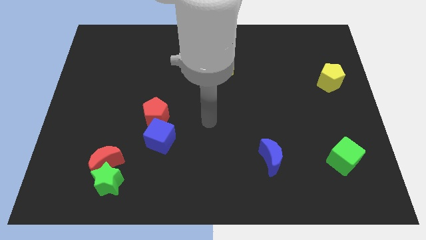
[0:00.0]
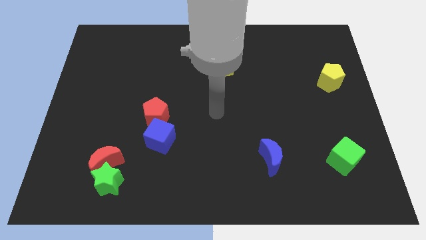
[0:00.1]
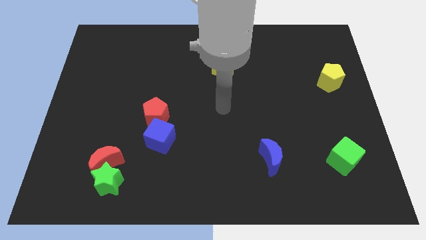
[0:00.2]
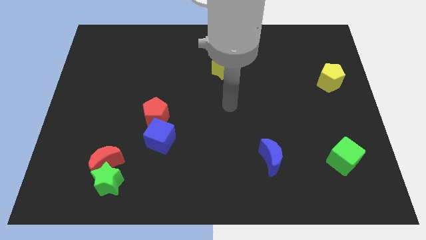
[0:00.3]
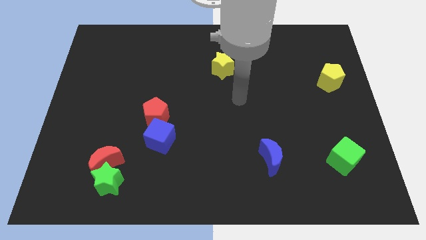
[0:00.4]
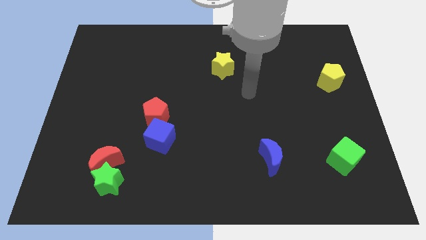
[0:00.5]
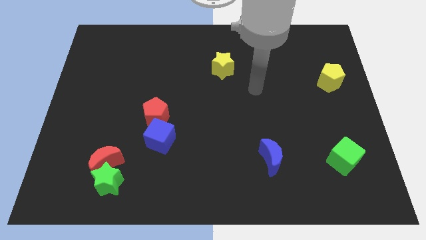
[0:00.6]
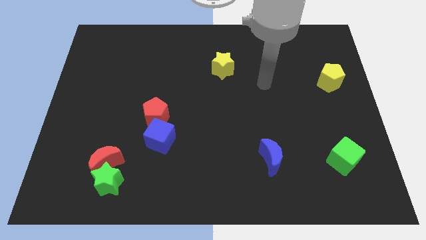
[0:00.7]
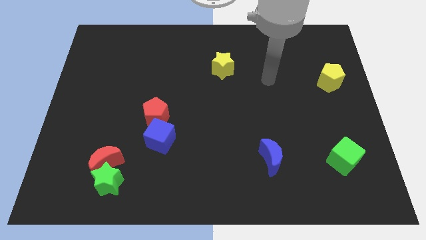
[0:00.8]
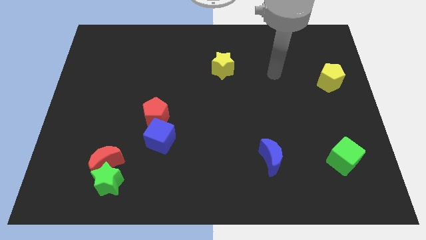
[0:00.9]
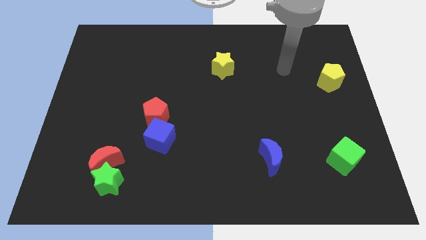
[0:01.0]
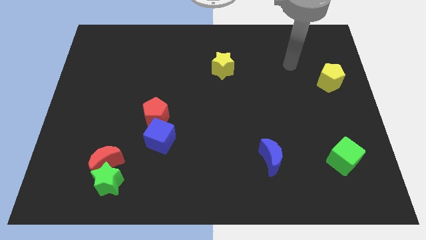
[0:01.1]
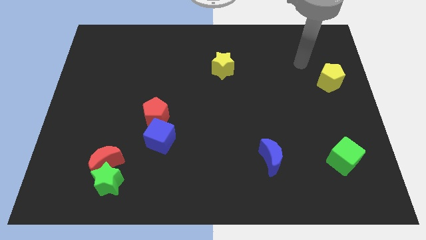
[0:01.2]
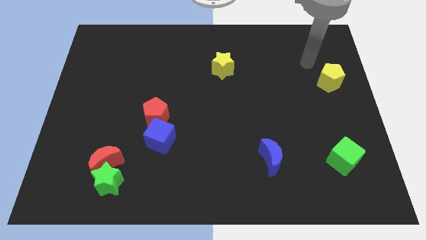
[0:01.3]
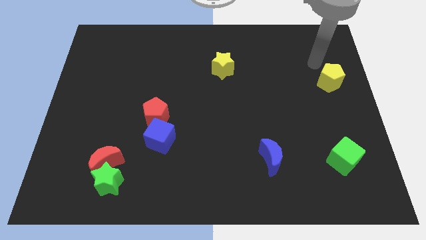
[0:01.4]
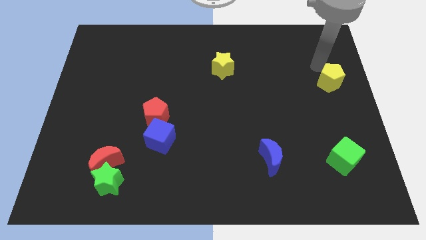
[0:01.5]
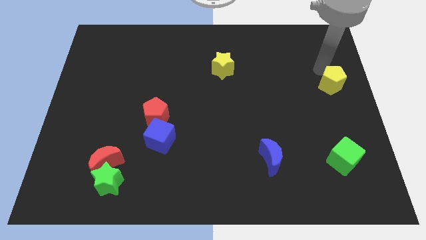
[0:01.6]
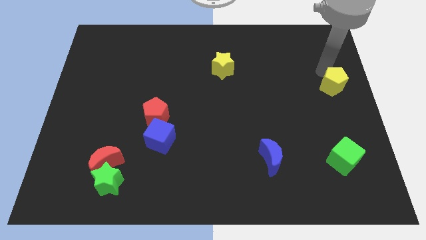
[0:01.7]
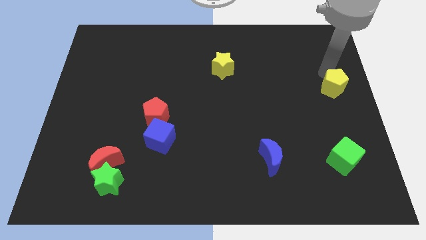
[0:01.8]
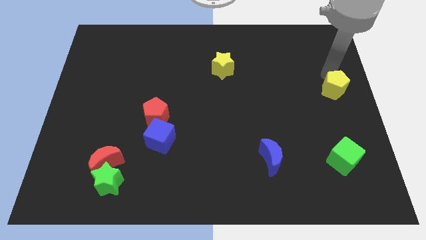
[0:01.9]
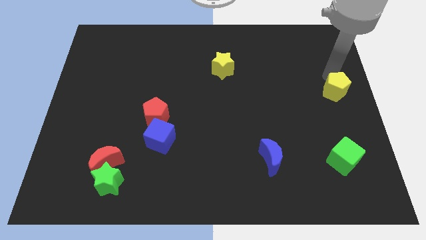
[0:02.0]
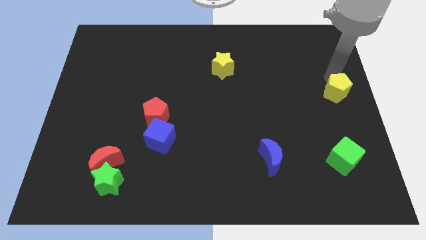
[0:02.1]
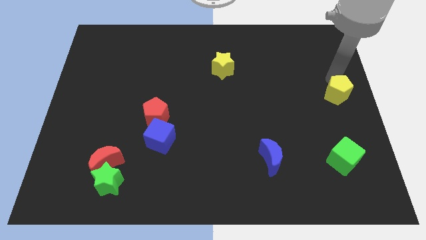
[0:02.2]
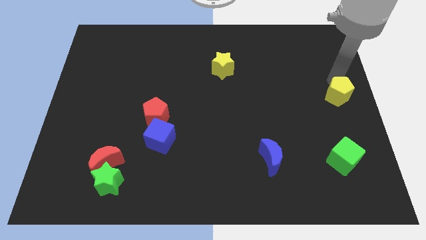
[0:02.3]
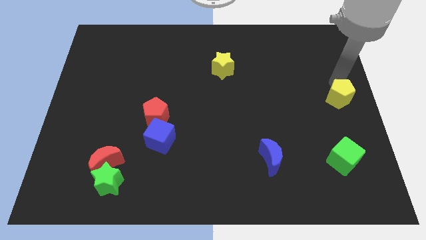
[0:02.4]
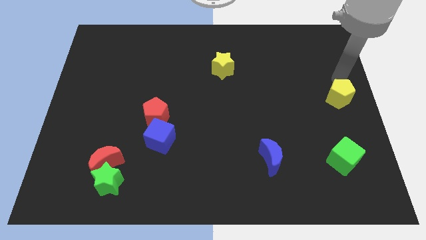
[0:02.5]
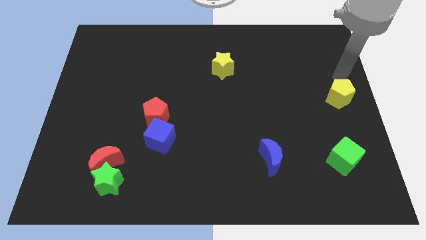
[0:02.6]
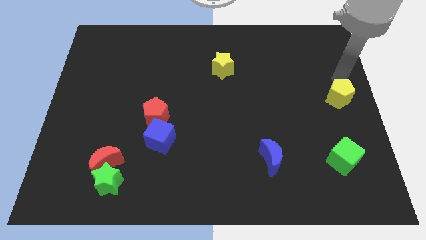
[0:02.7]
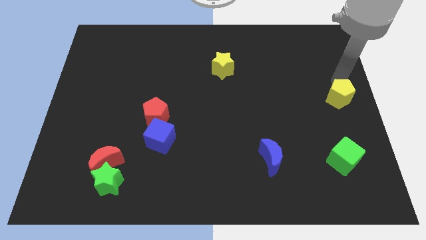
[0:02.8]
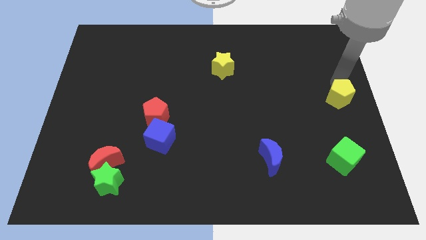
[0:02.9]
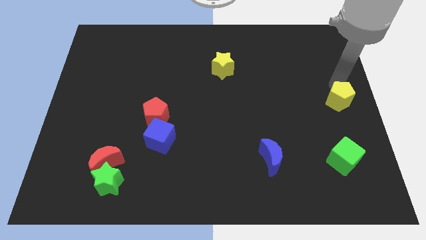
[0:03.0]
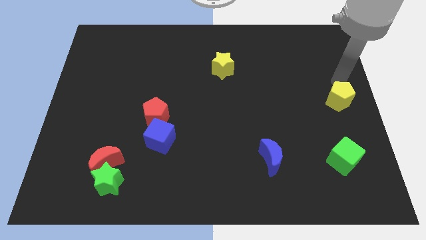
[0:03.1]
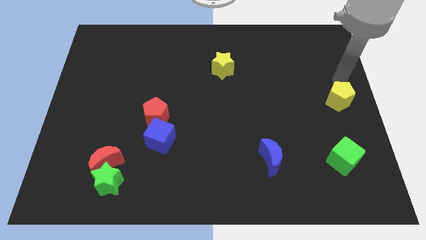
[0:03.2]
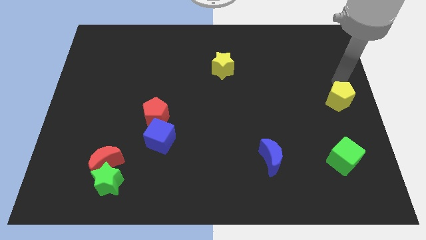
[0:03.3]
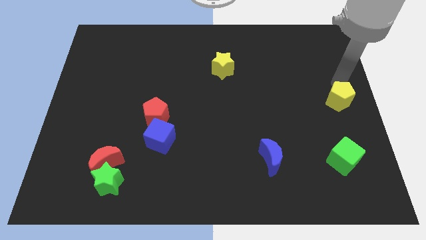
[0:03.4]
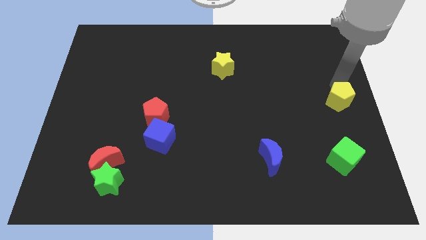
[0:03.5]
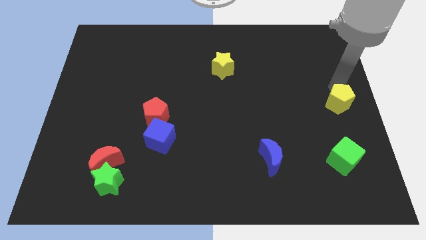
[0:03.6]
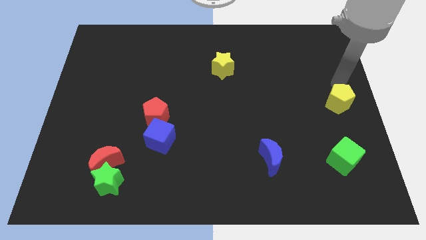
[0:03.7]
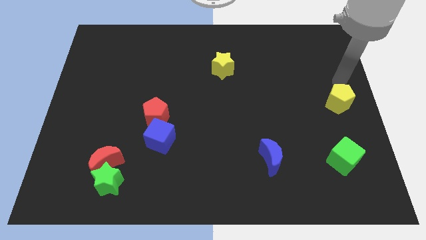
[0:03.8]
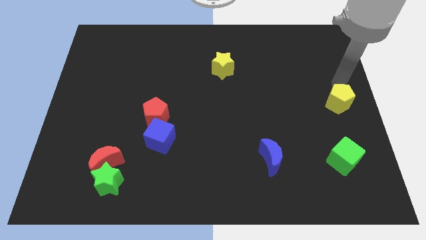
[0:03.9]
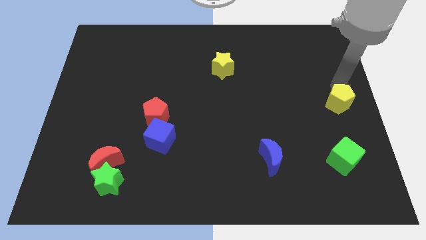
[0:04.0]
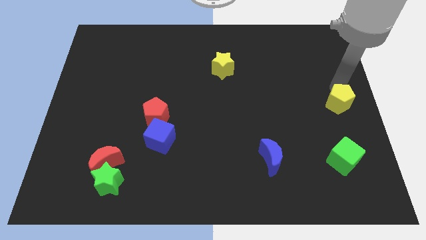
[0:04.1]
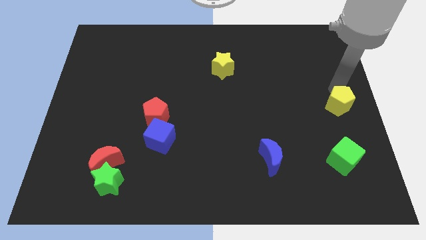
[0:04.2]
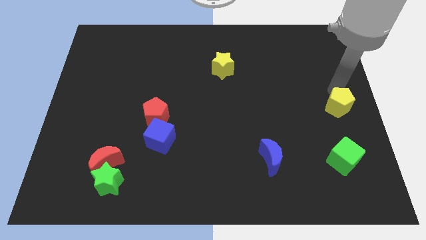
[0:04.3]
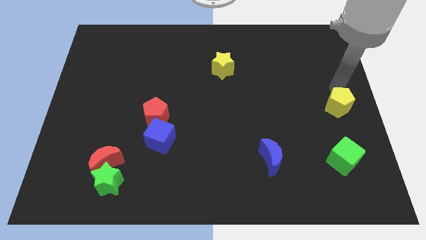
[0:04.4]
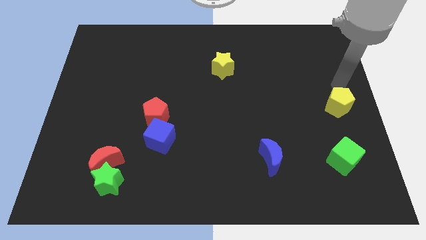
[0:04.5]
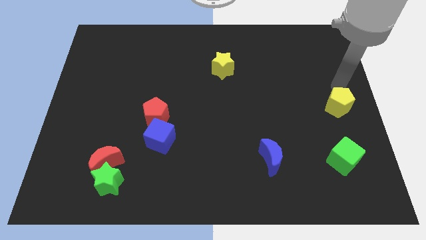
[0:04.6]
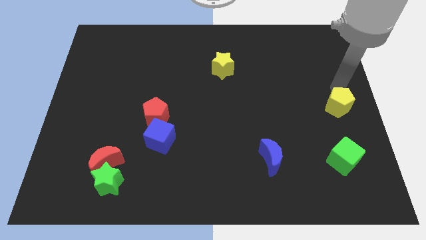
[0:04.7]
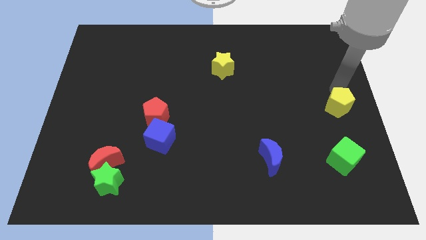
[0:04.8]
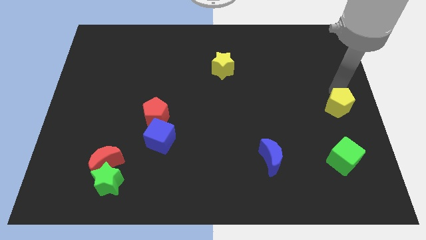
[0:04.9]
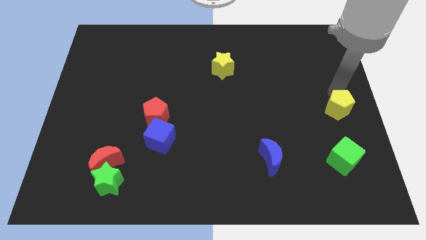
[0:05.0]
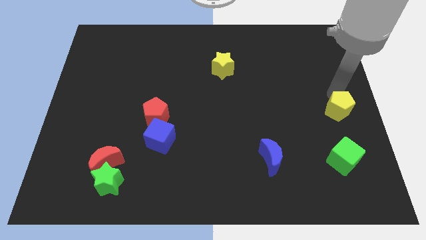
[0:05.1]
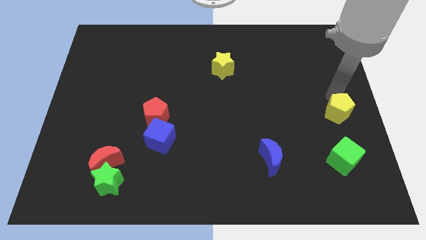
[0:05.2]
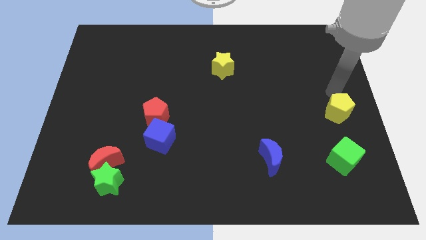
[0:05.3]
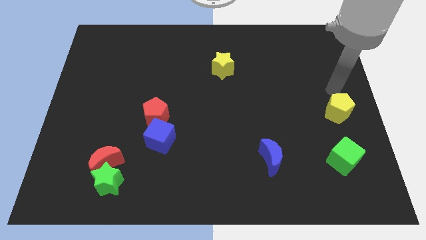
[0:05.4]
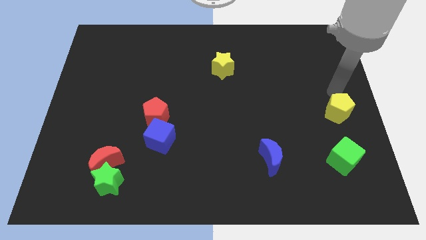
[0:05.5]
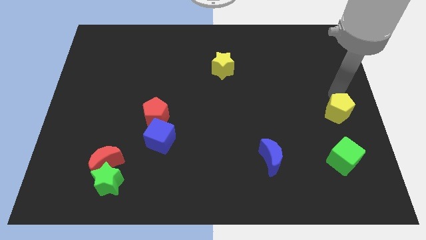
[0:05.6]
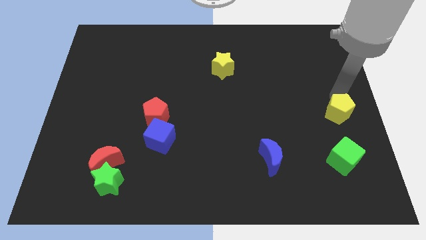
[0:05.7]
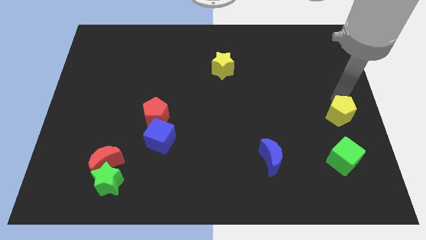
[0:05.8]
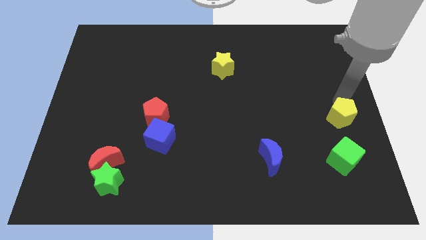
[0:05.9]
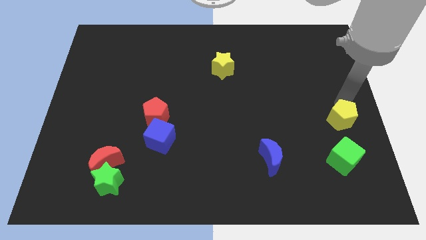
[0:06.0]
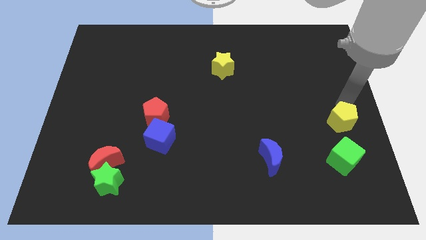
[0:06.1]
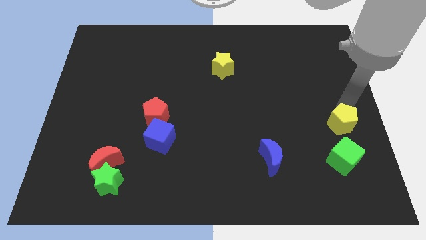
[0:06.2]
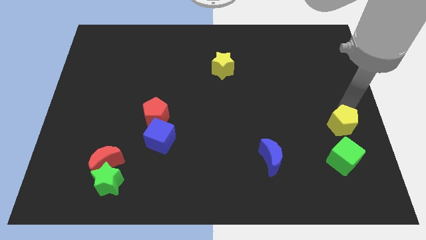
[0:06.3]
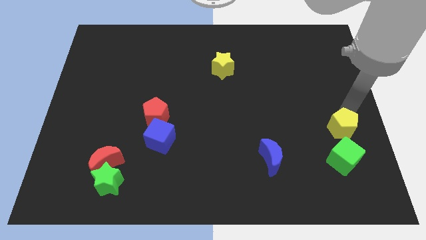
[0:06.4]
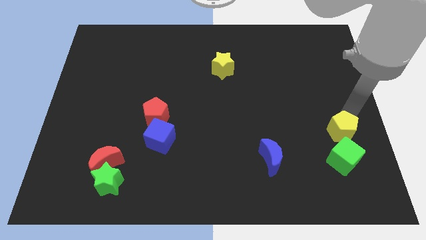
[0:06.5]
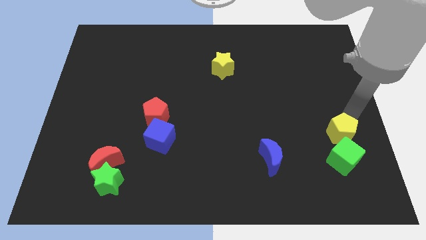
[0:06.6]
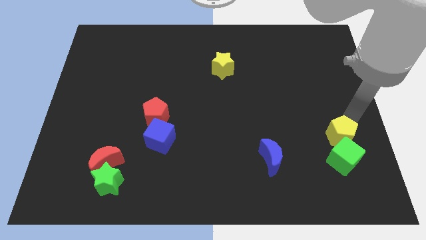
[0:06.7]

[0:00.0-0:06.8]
put the yellow pentagon close to the green cube

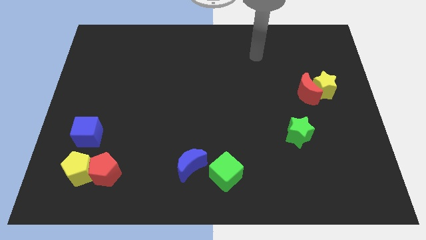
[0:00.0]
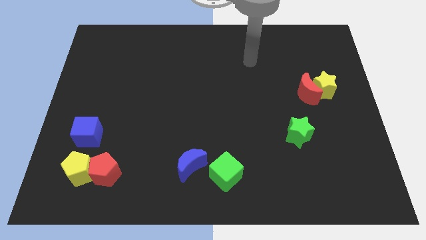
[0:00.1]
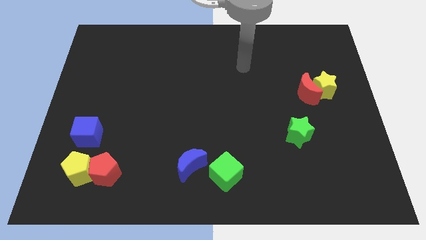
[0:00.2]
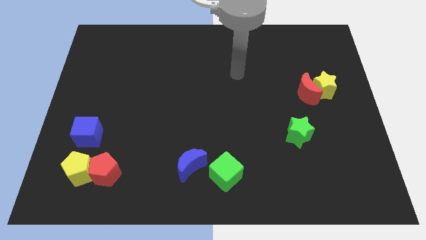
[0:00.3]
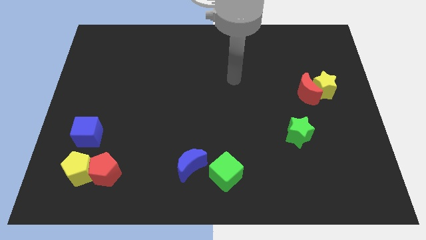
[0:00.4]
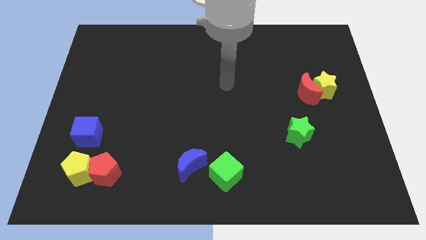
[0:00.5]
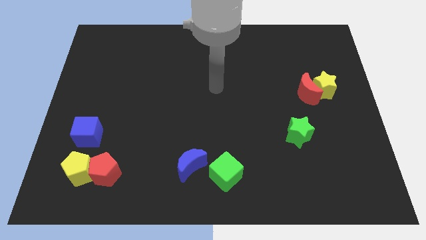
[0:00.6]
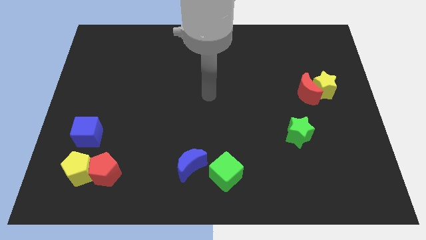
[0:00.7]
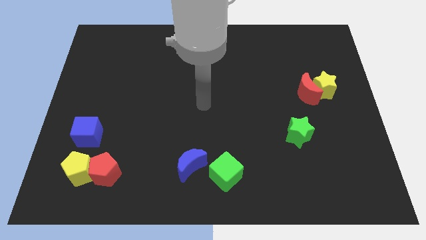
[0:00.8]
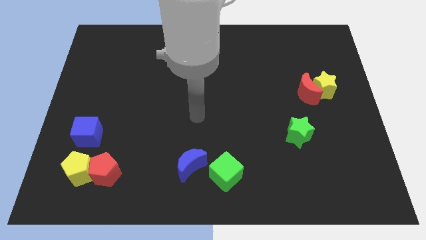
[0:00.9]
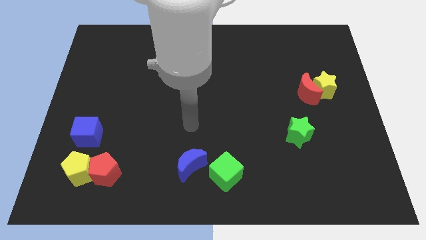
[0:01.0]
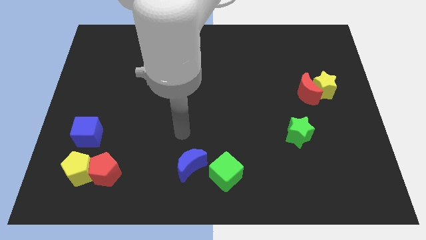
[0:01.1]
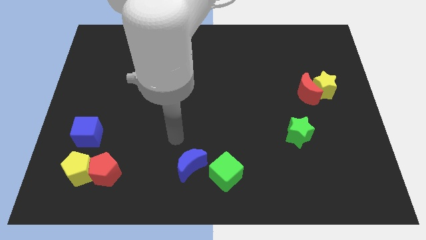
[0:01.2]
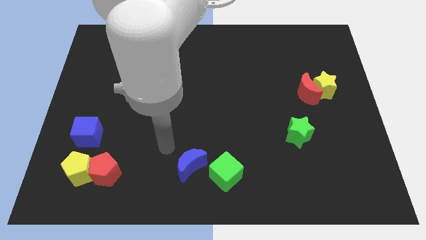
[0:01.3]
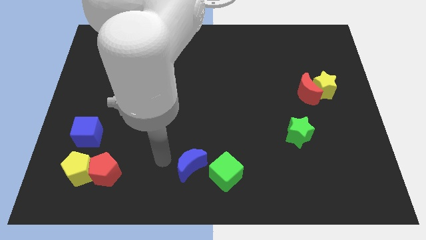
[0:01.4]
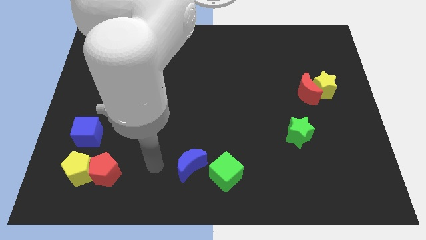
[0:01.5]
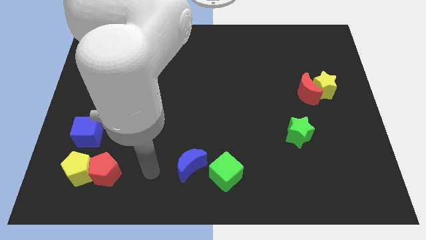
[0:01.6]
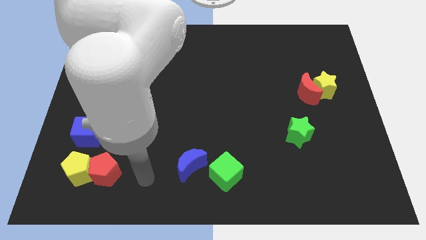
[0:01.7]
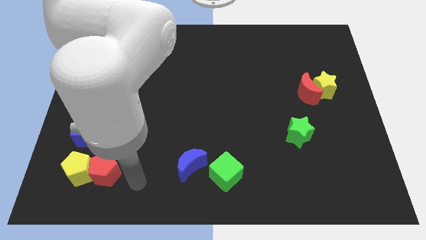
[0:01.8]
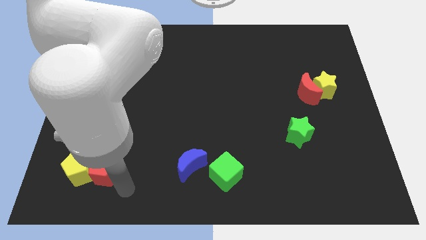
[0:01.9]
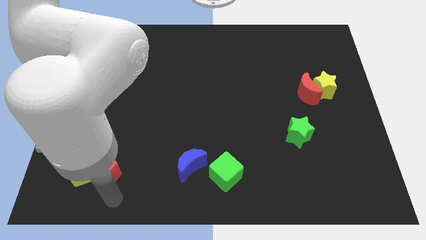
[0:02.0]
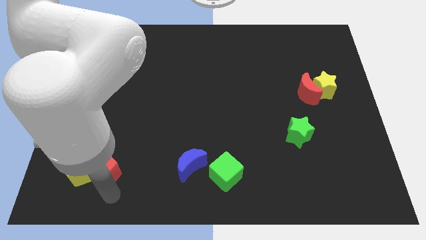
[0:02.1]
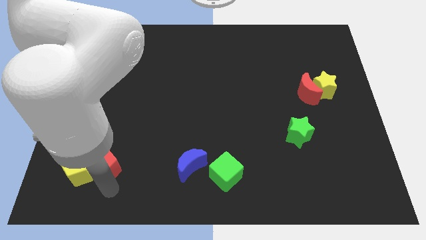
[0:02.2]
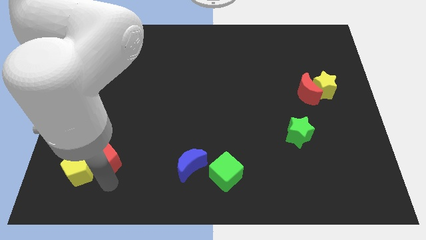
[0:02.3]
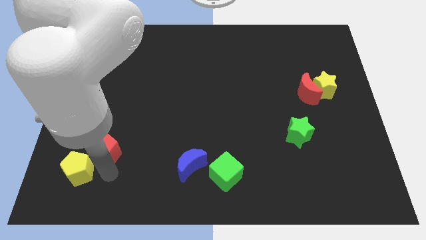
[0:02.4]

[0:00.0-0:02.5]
push the red pentagon to the blue cube
